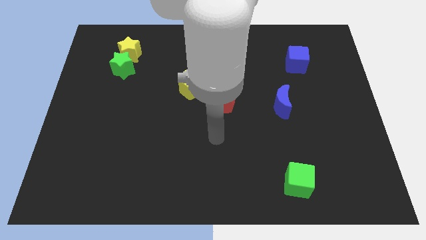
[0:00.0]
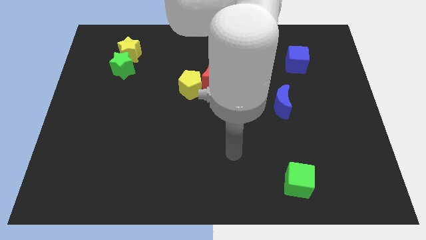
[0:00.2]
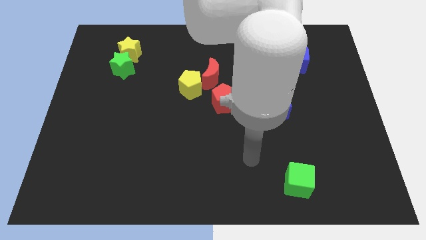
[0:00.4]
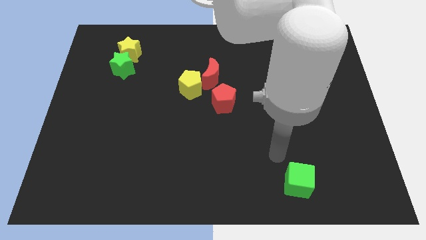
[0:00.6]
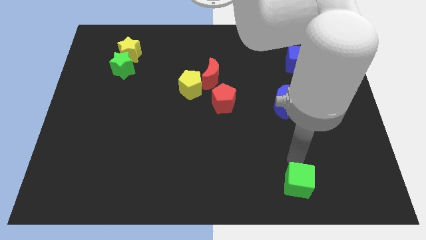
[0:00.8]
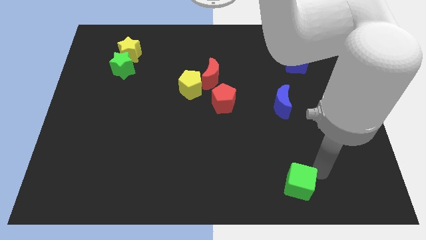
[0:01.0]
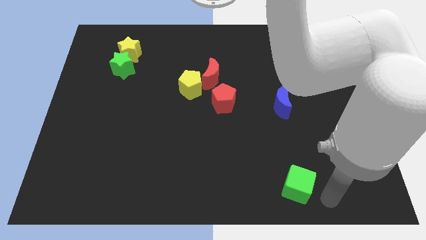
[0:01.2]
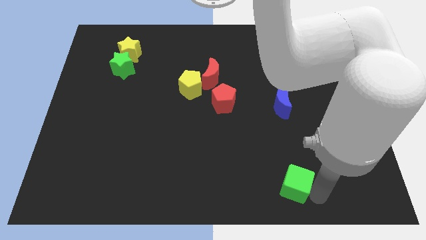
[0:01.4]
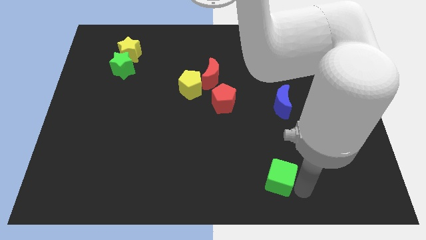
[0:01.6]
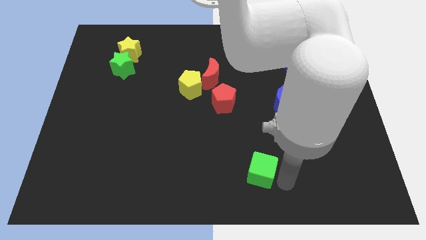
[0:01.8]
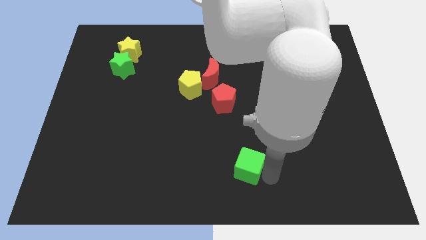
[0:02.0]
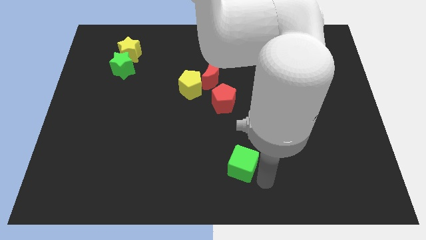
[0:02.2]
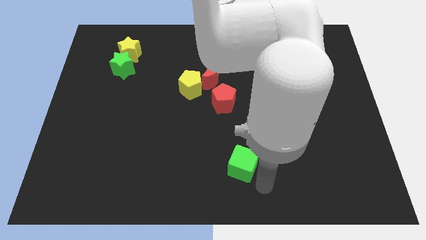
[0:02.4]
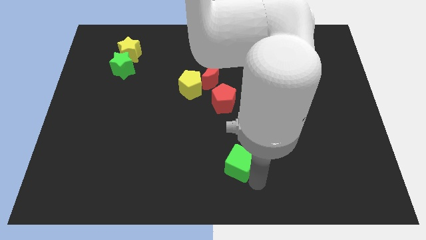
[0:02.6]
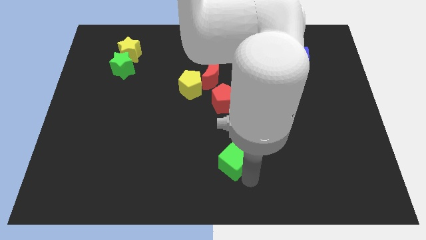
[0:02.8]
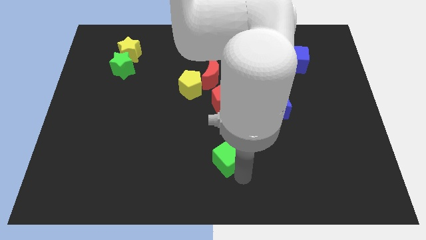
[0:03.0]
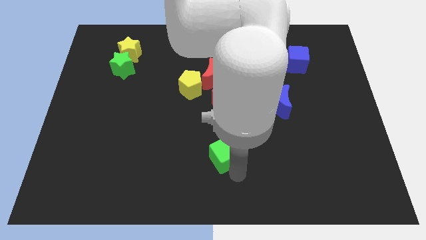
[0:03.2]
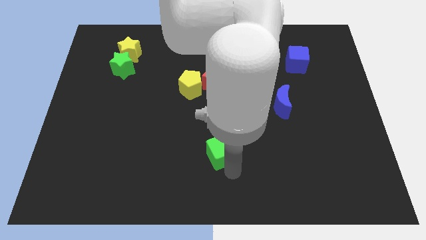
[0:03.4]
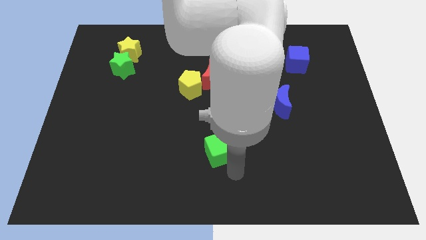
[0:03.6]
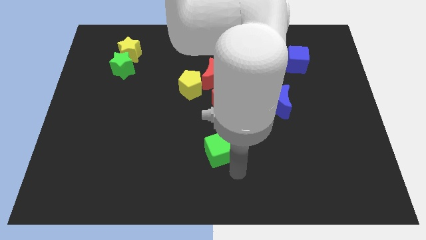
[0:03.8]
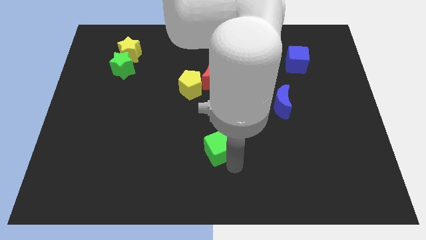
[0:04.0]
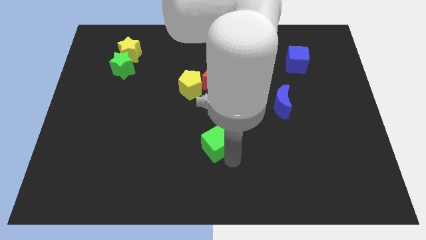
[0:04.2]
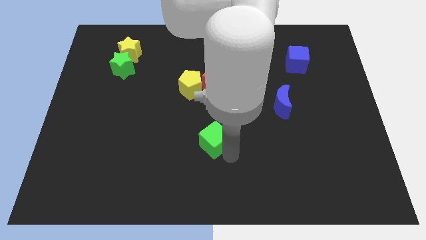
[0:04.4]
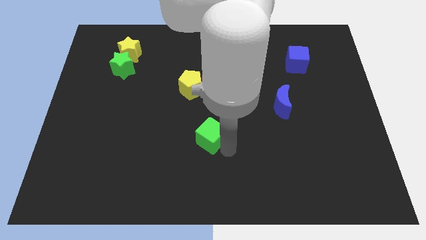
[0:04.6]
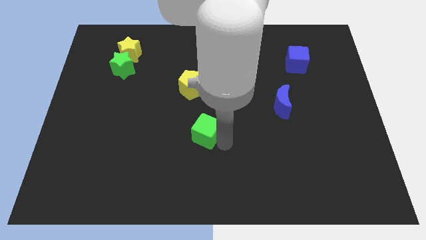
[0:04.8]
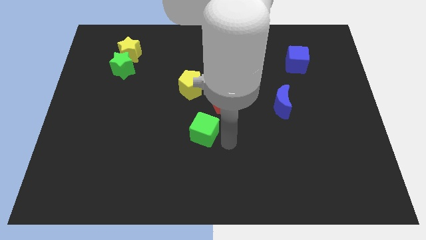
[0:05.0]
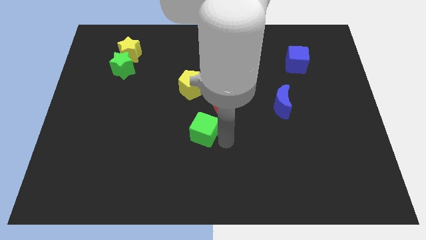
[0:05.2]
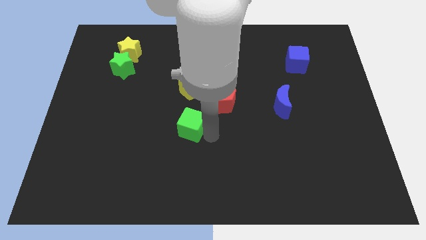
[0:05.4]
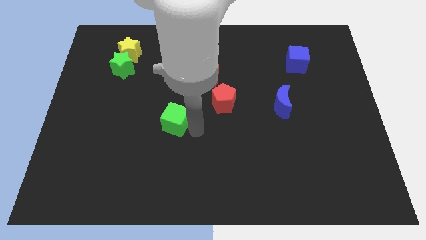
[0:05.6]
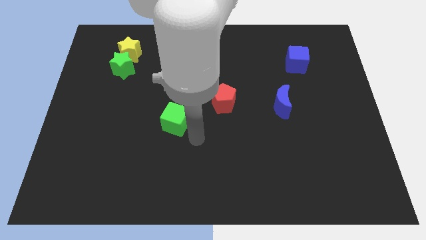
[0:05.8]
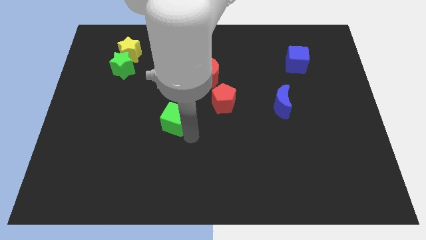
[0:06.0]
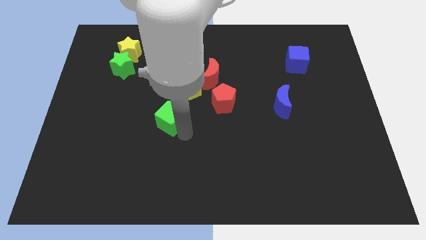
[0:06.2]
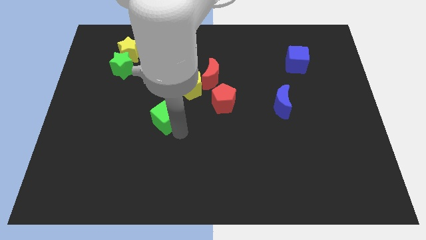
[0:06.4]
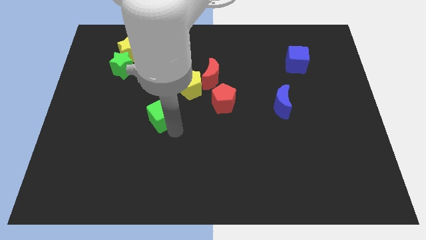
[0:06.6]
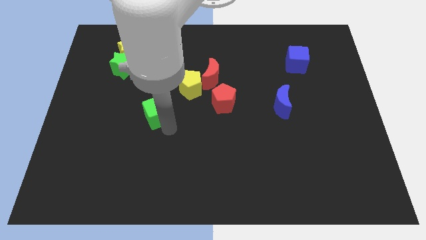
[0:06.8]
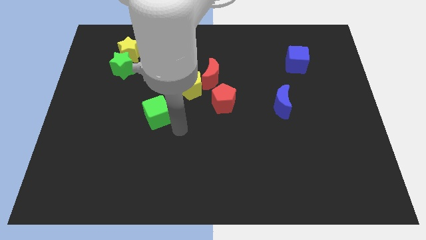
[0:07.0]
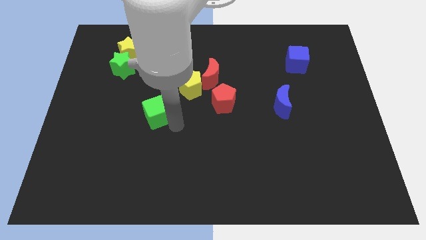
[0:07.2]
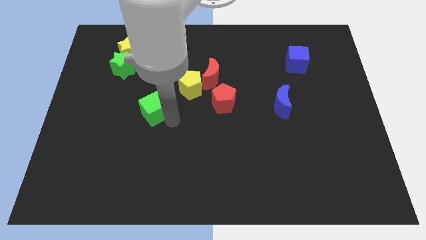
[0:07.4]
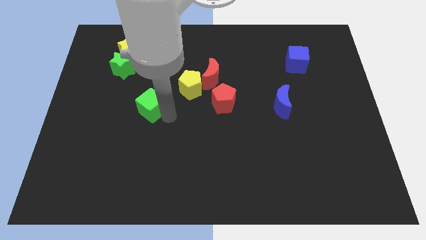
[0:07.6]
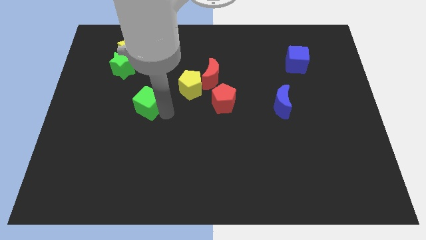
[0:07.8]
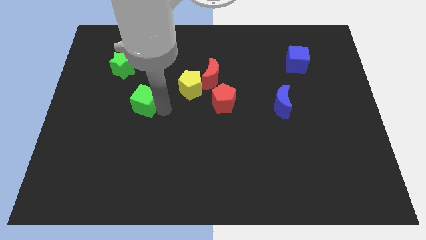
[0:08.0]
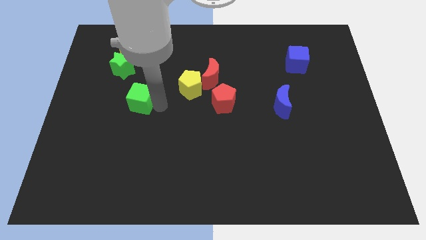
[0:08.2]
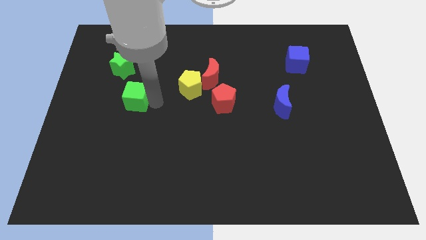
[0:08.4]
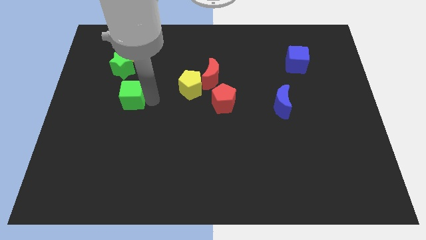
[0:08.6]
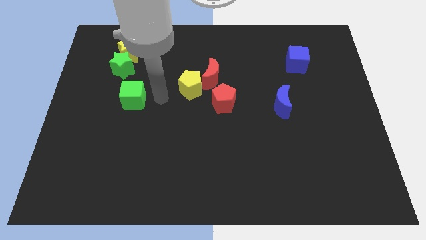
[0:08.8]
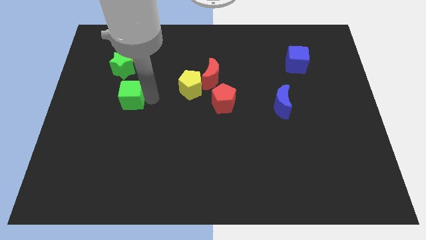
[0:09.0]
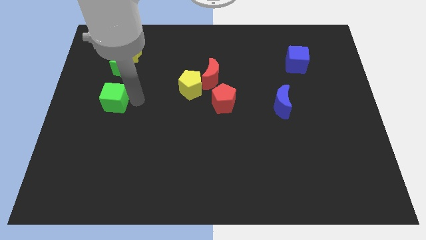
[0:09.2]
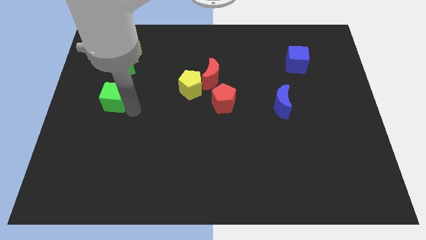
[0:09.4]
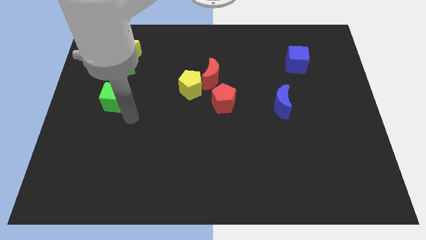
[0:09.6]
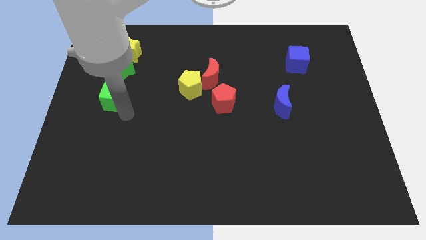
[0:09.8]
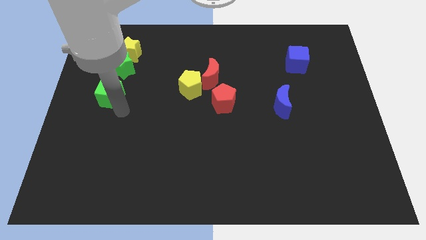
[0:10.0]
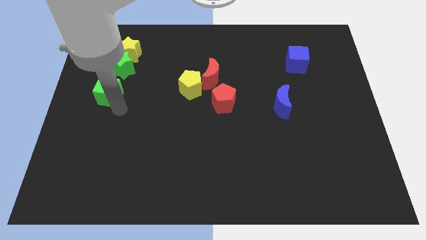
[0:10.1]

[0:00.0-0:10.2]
slide the green cube diagonally down and to the left of the green star

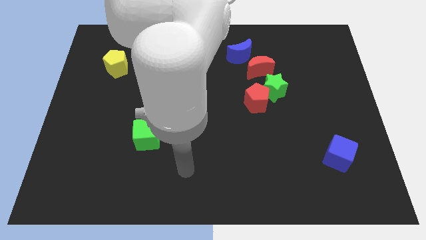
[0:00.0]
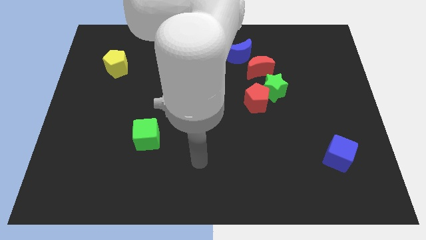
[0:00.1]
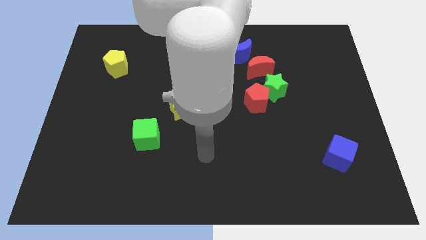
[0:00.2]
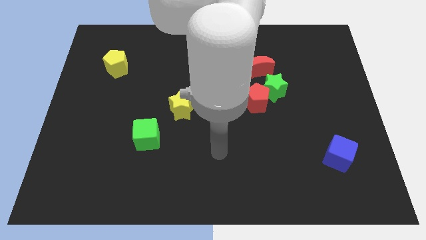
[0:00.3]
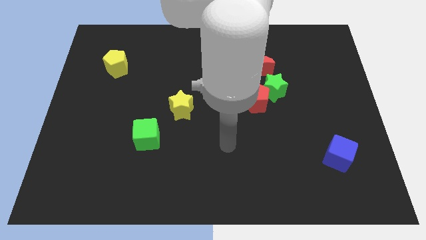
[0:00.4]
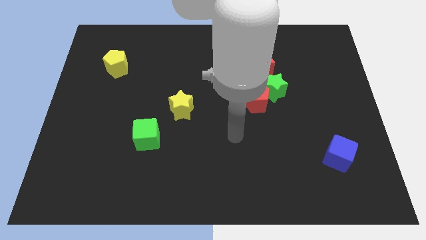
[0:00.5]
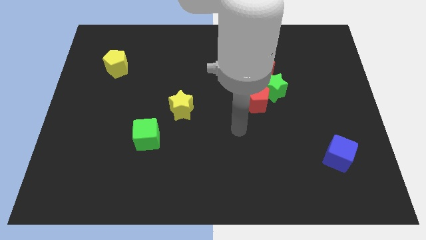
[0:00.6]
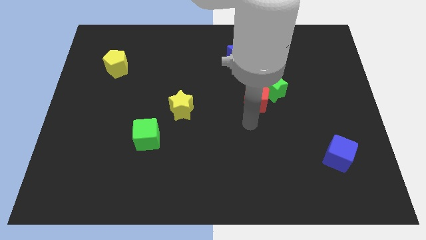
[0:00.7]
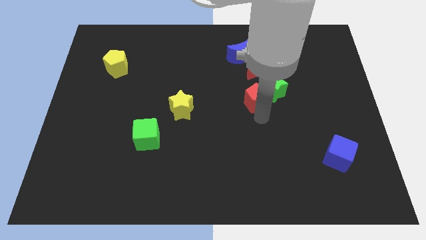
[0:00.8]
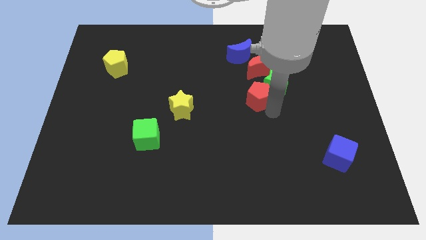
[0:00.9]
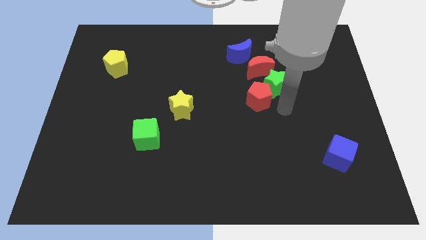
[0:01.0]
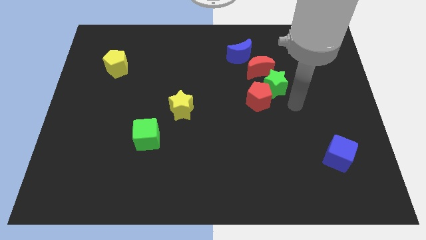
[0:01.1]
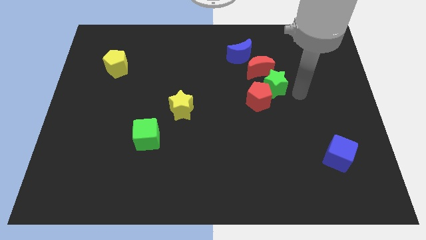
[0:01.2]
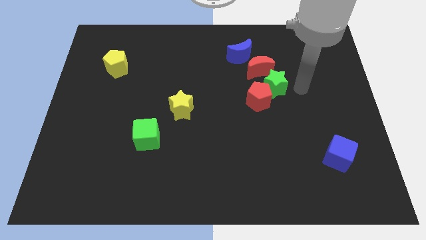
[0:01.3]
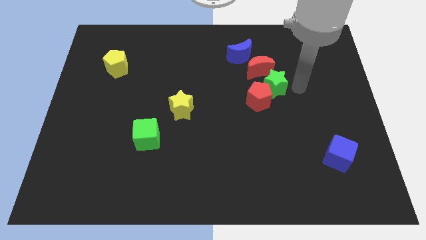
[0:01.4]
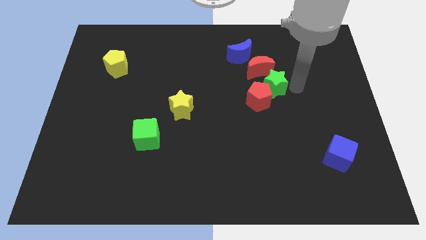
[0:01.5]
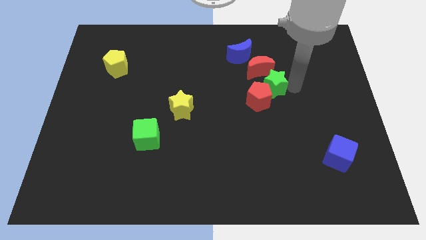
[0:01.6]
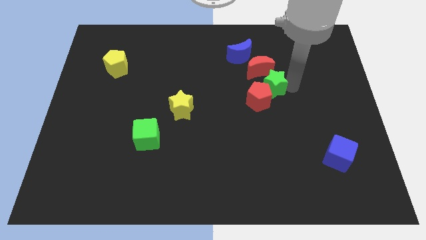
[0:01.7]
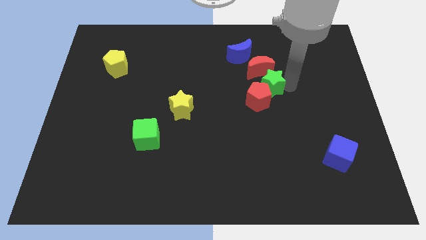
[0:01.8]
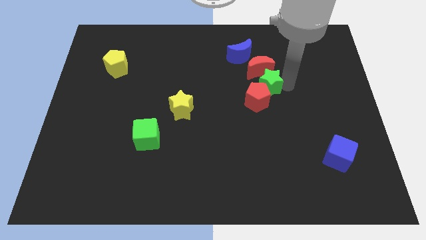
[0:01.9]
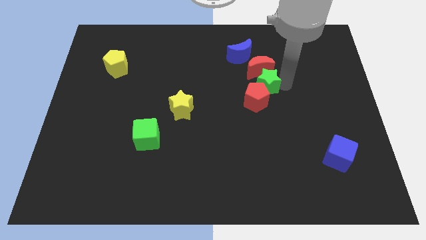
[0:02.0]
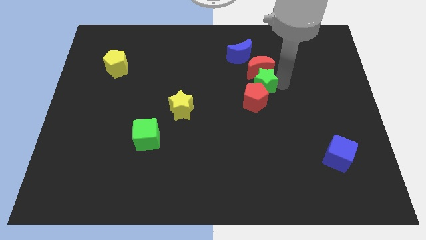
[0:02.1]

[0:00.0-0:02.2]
push the green star diagonally down and to the left of the red moon
